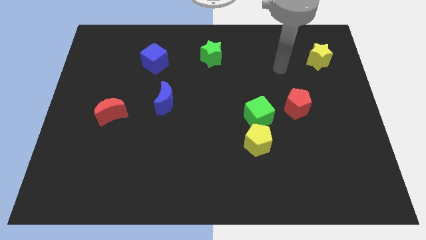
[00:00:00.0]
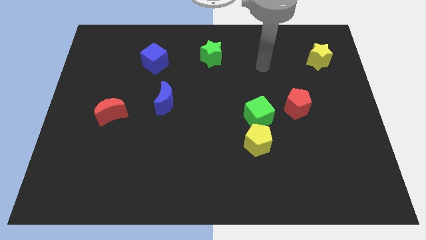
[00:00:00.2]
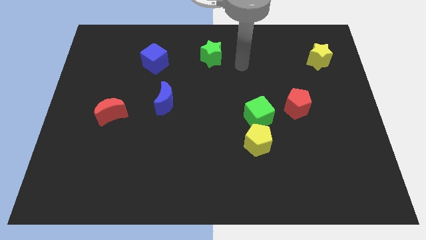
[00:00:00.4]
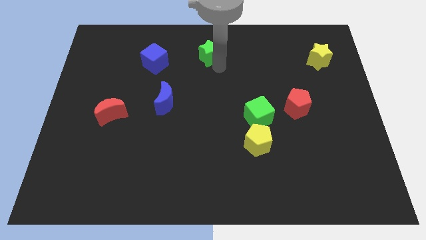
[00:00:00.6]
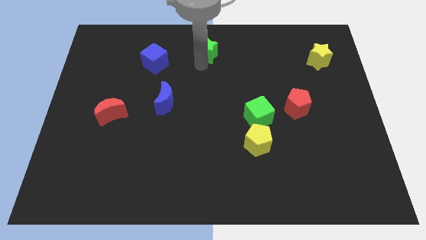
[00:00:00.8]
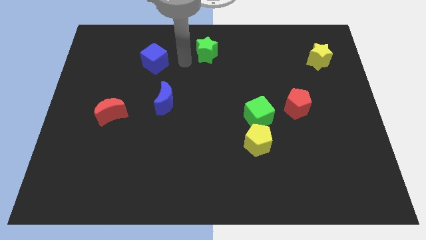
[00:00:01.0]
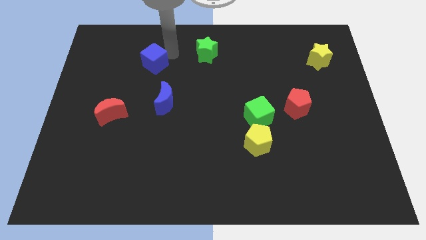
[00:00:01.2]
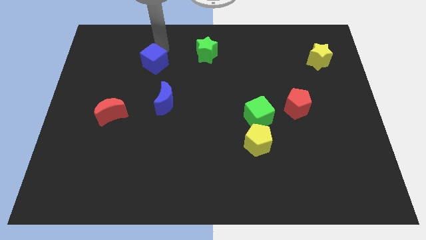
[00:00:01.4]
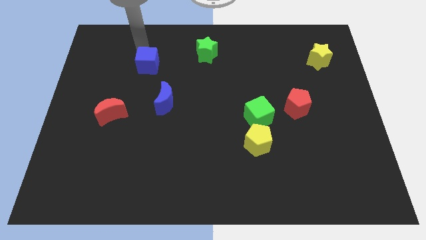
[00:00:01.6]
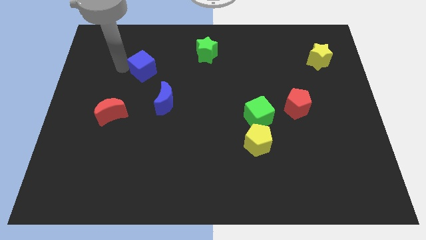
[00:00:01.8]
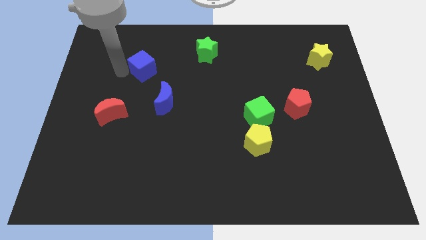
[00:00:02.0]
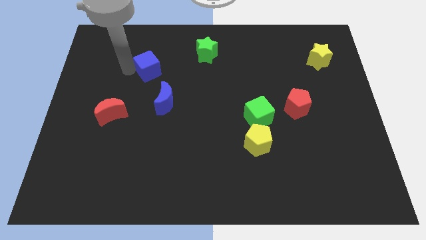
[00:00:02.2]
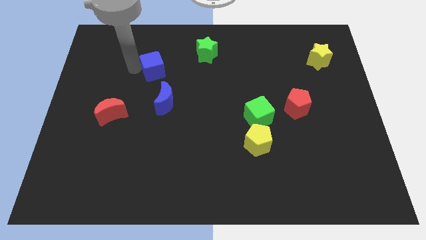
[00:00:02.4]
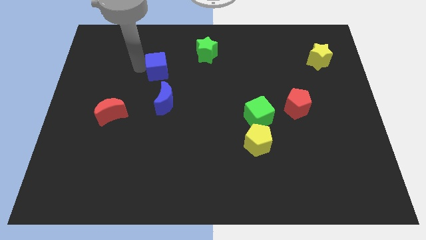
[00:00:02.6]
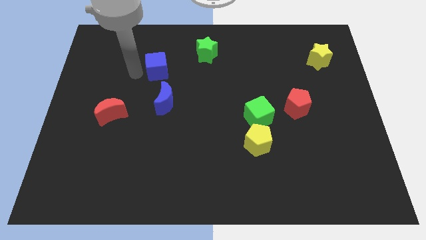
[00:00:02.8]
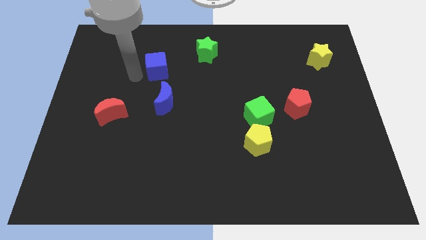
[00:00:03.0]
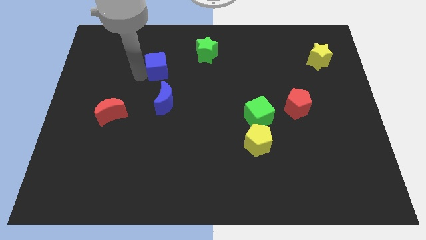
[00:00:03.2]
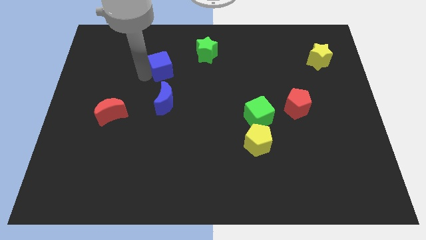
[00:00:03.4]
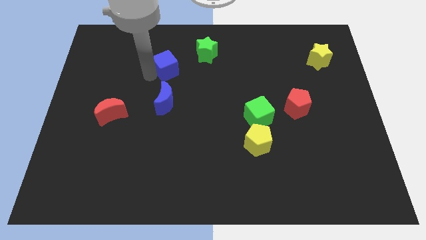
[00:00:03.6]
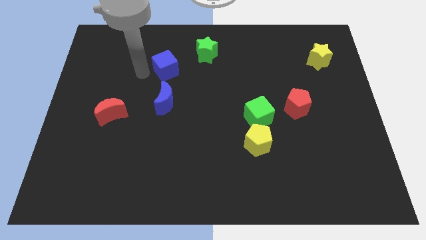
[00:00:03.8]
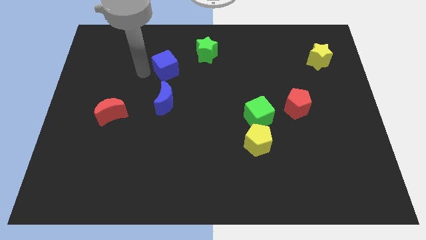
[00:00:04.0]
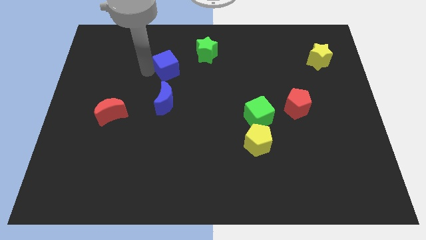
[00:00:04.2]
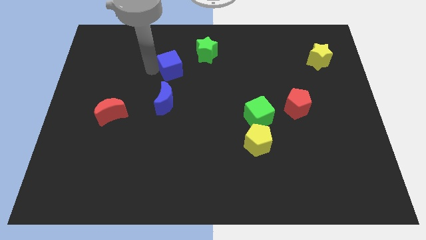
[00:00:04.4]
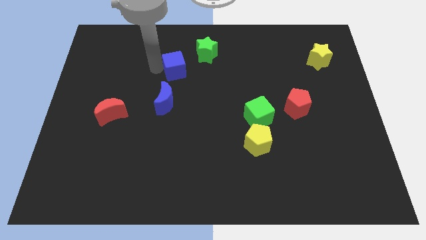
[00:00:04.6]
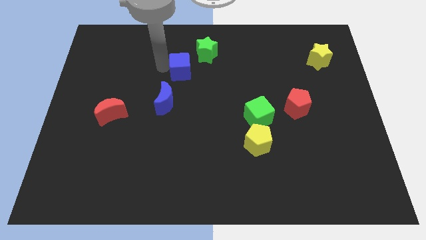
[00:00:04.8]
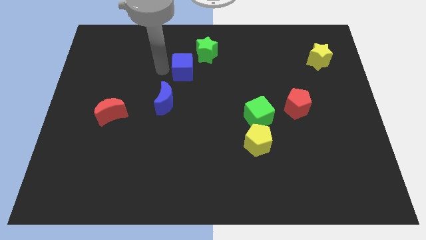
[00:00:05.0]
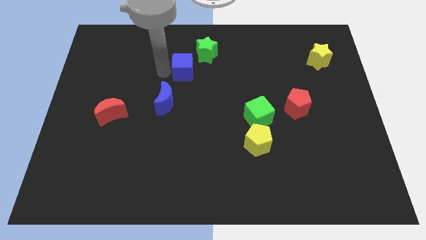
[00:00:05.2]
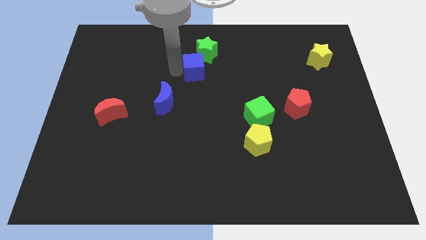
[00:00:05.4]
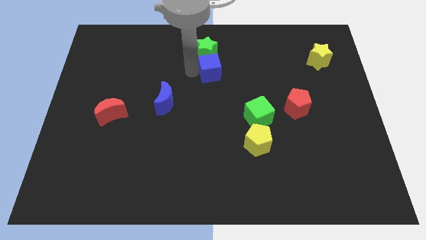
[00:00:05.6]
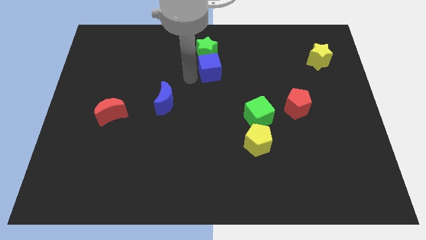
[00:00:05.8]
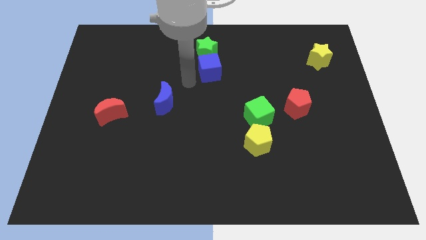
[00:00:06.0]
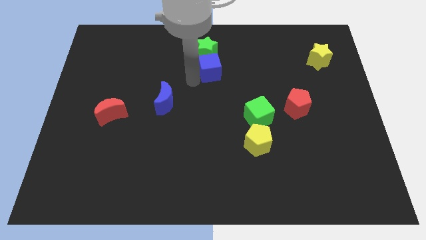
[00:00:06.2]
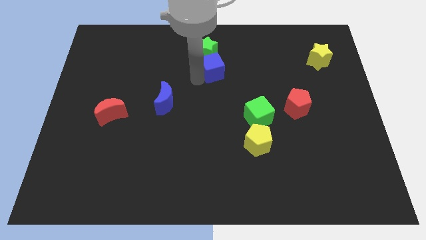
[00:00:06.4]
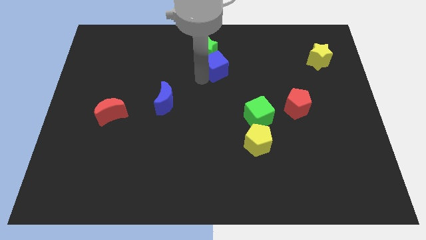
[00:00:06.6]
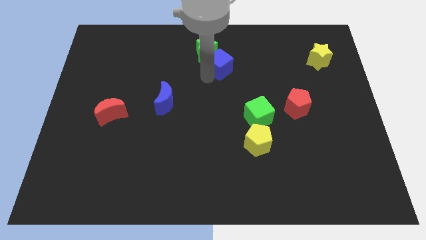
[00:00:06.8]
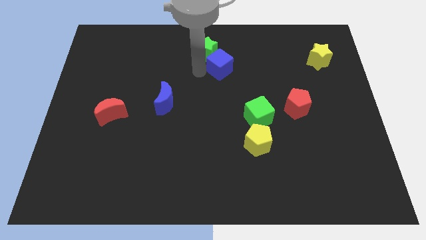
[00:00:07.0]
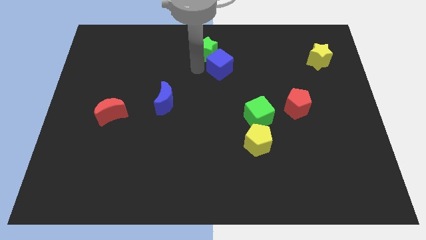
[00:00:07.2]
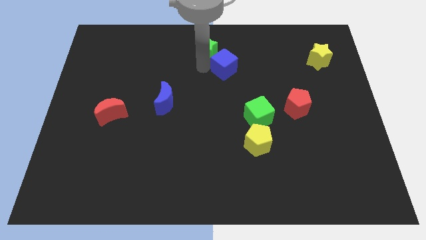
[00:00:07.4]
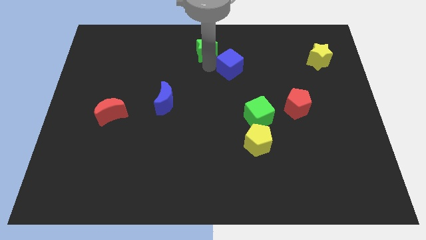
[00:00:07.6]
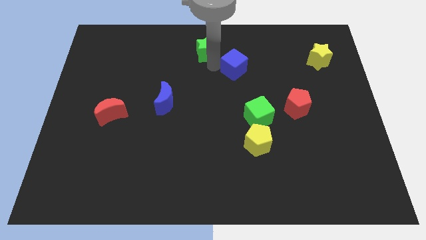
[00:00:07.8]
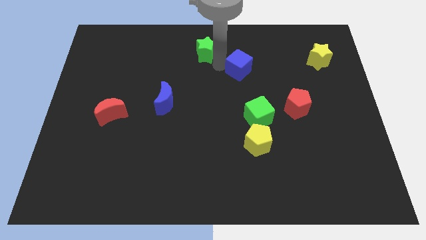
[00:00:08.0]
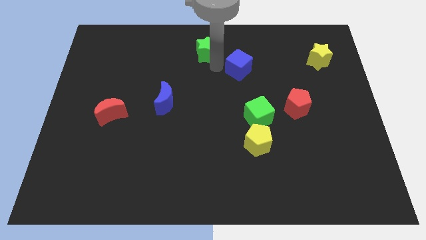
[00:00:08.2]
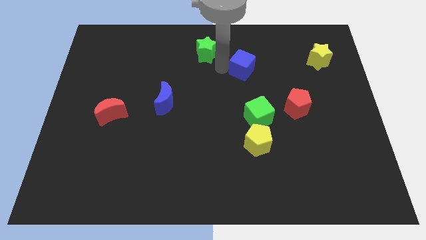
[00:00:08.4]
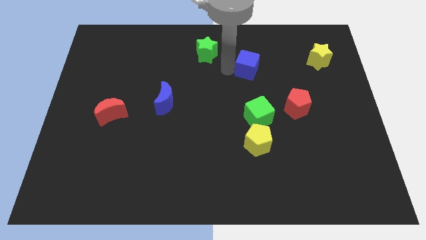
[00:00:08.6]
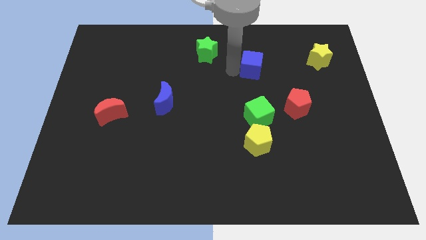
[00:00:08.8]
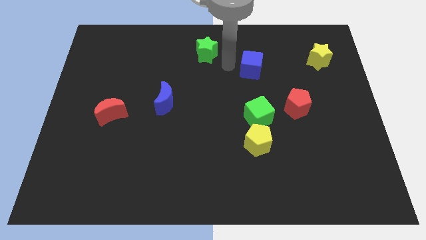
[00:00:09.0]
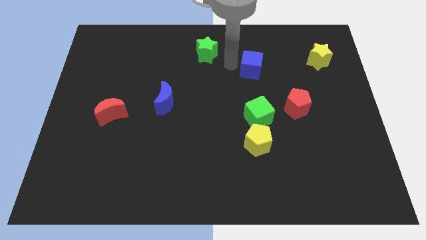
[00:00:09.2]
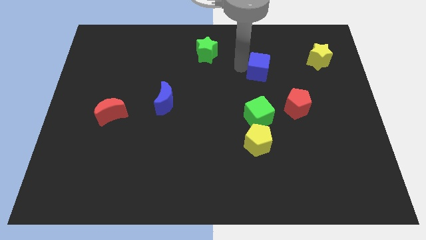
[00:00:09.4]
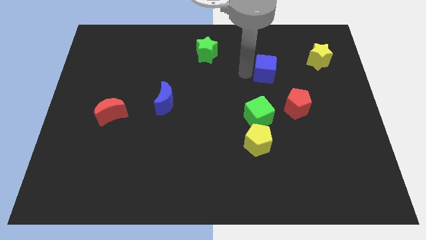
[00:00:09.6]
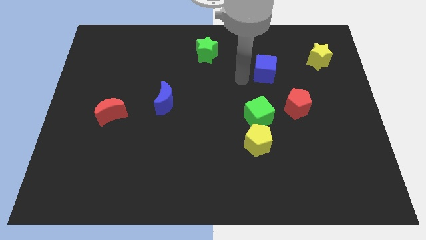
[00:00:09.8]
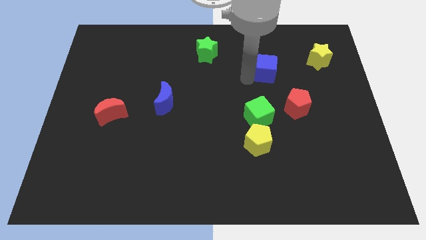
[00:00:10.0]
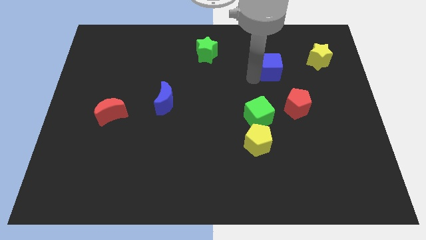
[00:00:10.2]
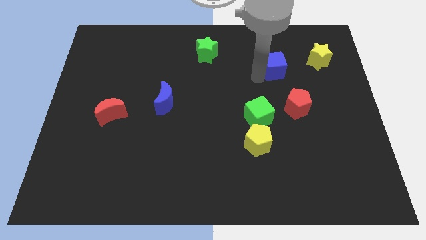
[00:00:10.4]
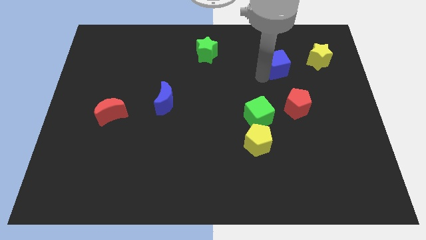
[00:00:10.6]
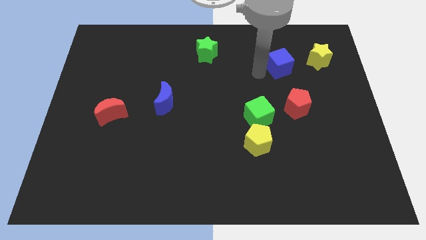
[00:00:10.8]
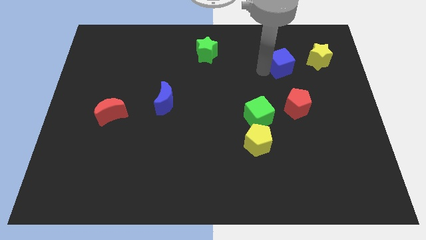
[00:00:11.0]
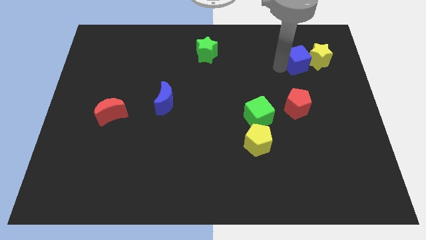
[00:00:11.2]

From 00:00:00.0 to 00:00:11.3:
move the blue cube towards the yellow star
